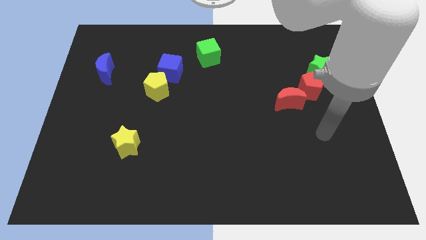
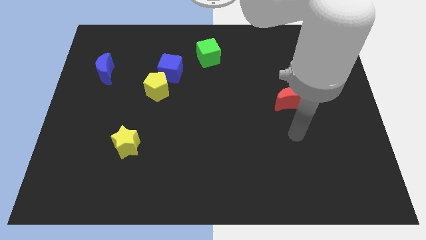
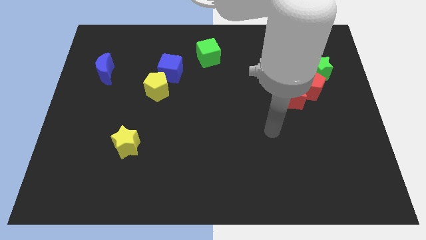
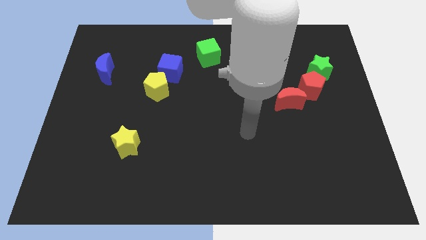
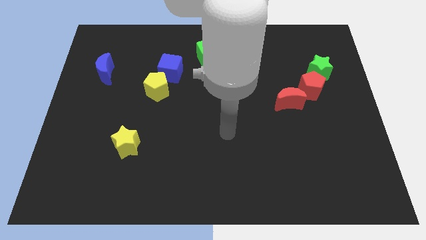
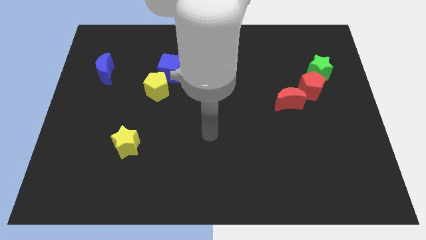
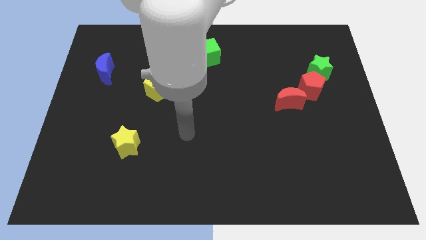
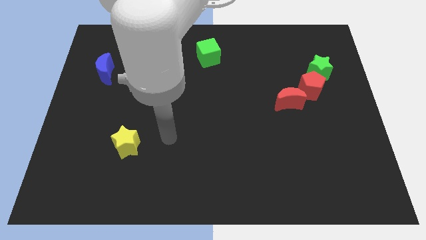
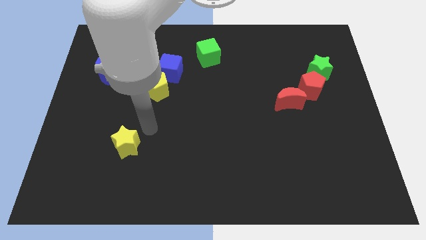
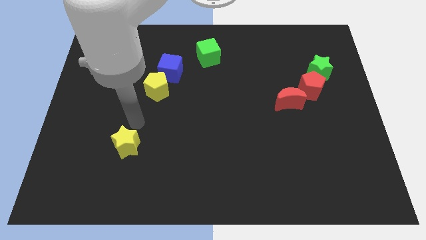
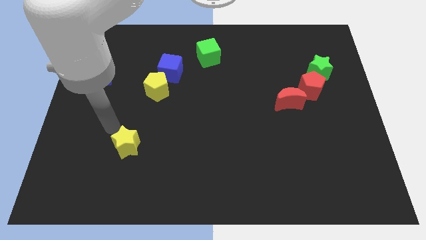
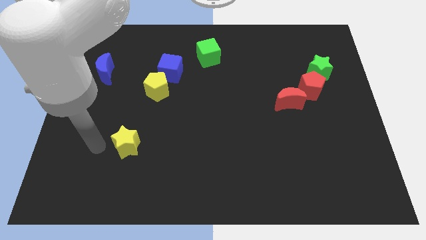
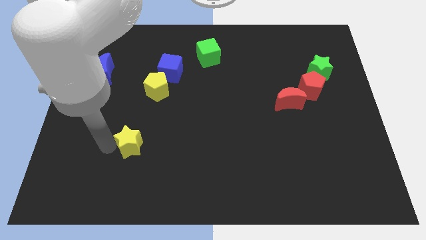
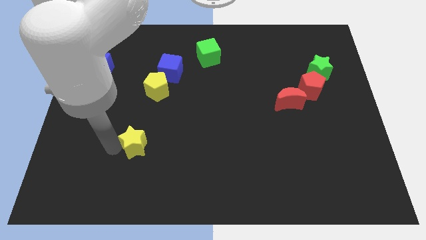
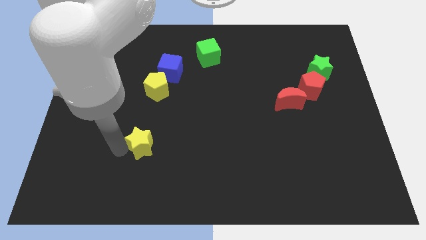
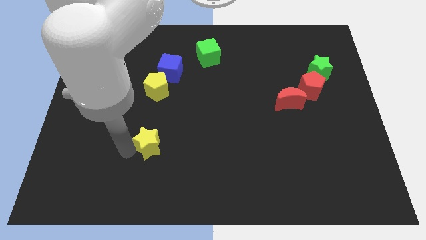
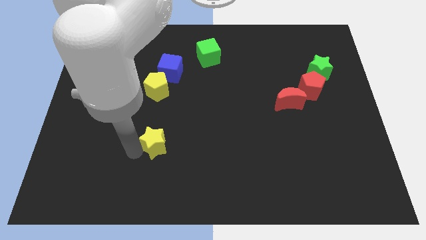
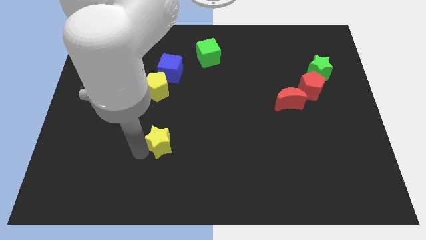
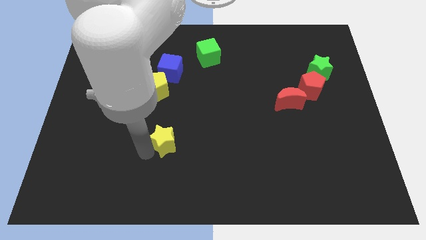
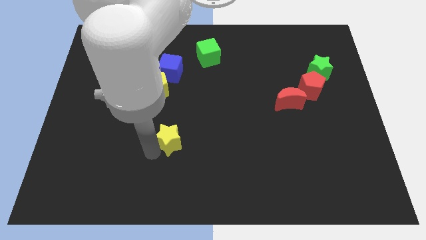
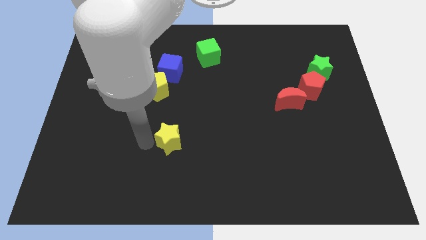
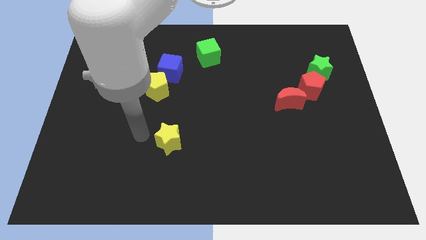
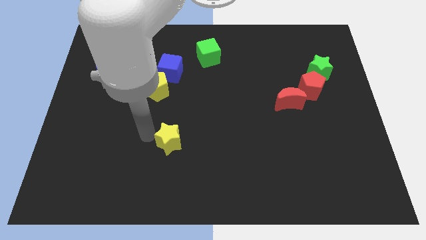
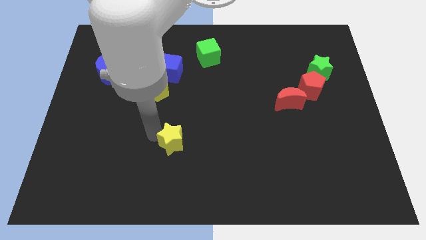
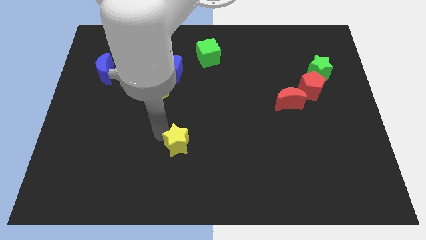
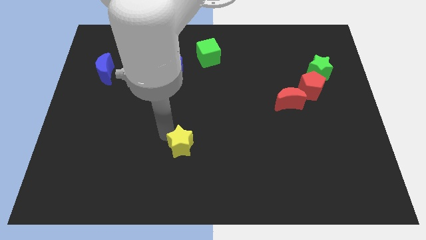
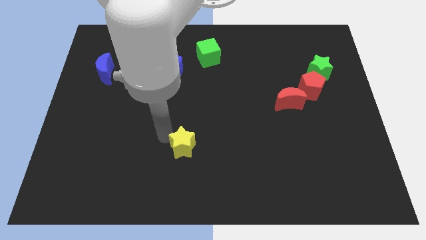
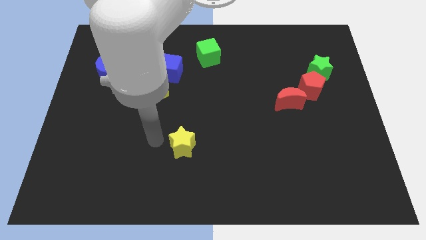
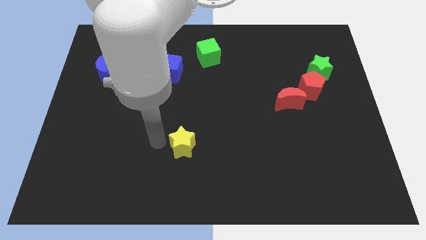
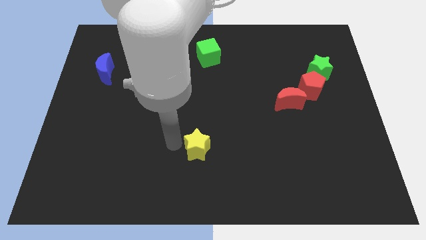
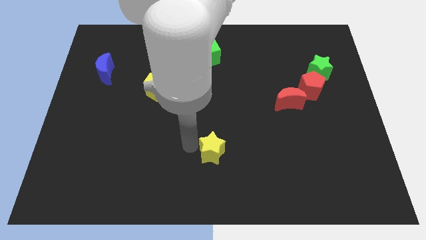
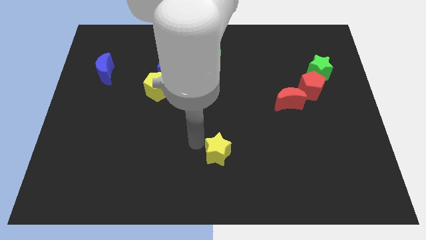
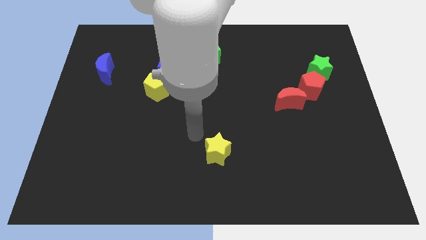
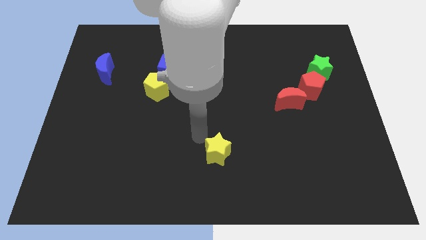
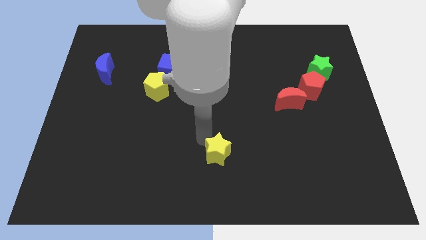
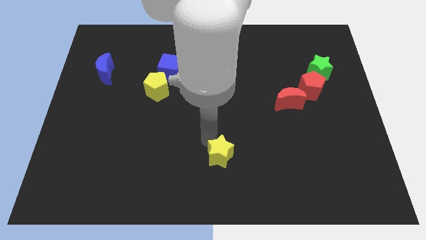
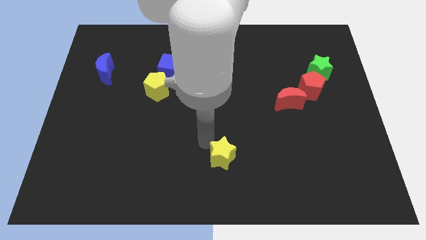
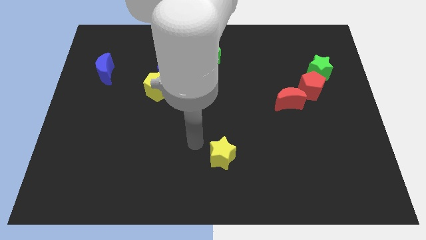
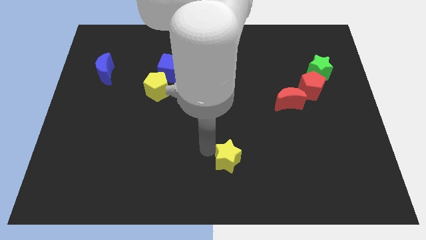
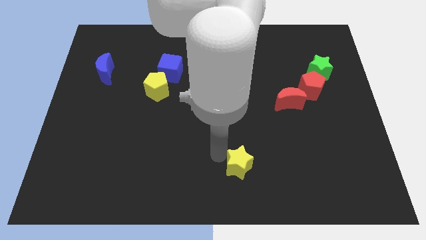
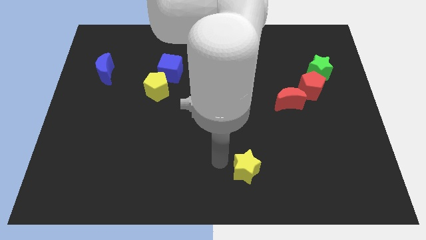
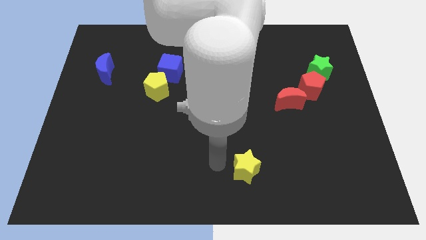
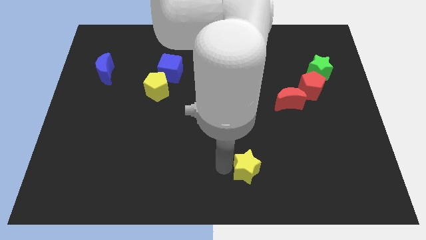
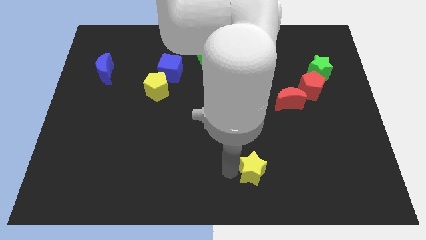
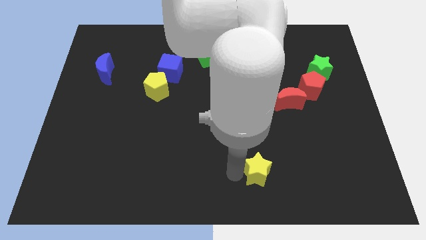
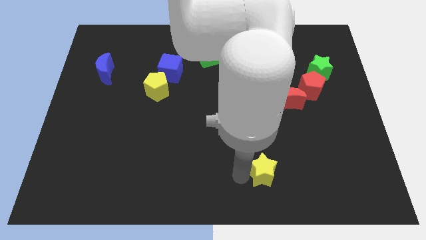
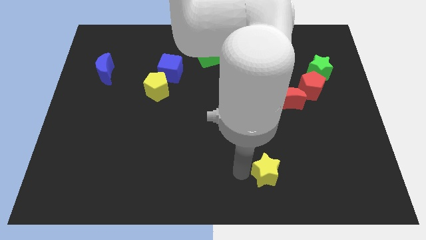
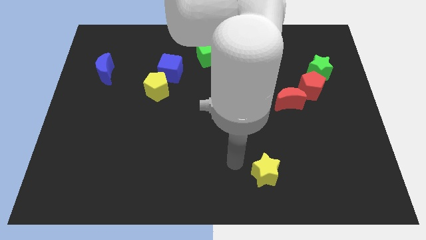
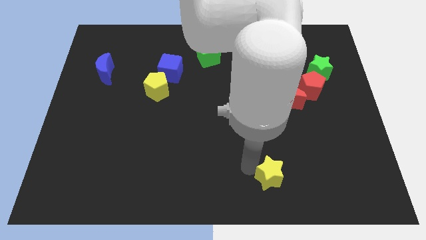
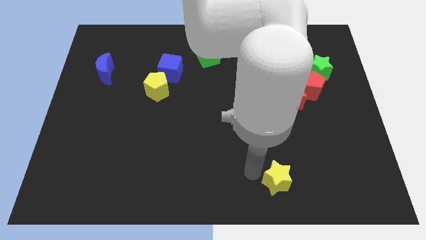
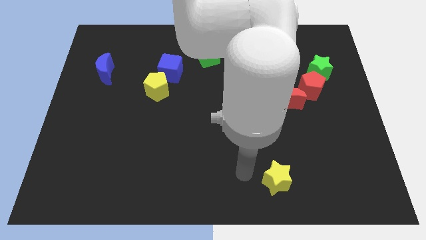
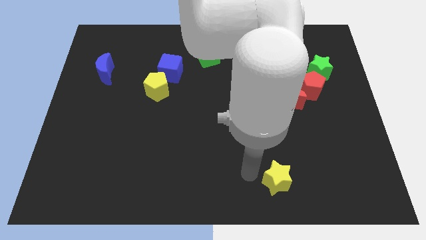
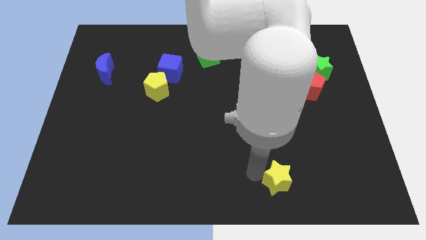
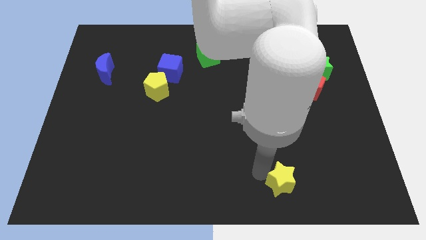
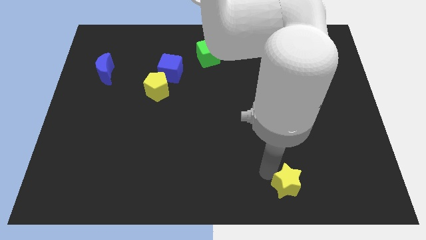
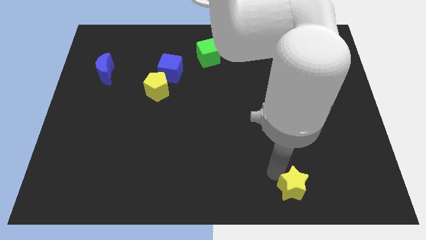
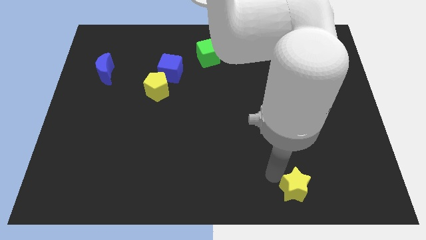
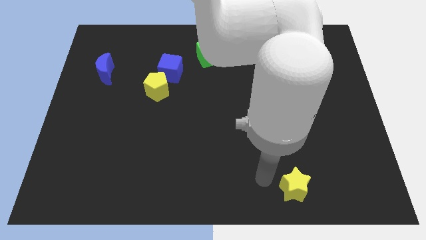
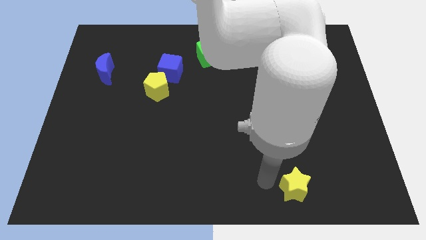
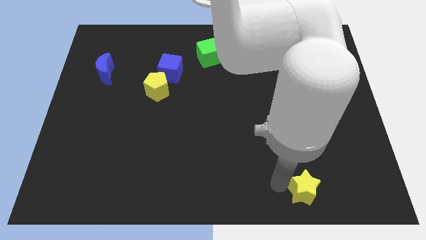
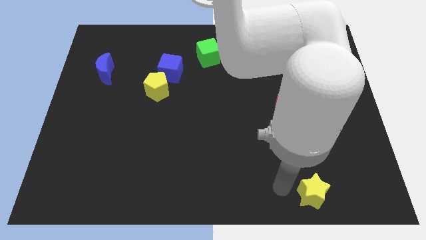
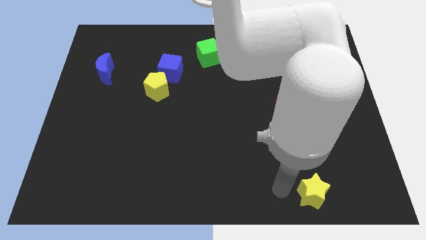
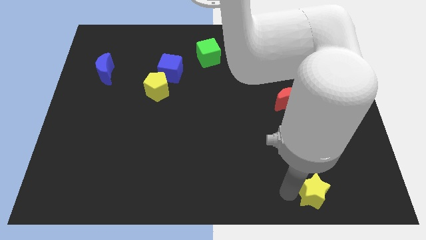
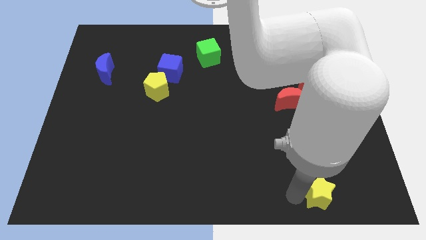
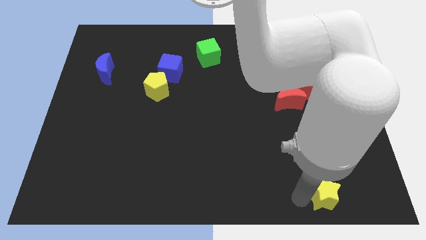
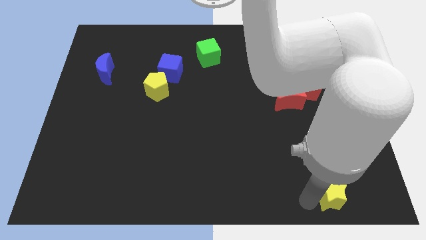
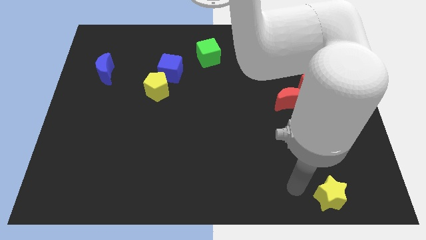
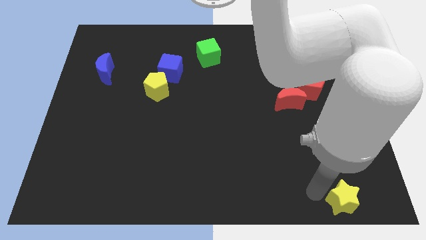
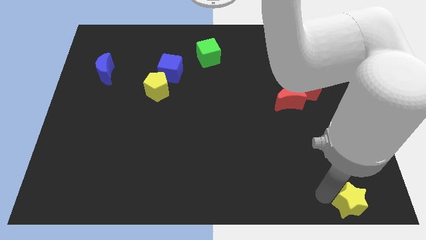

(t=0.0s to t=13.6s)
put the yellow star to the bottom right corner
